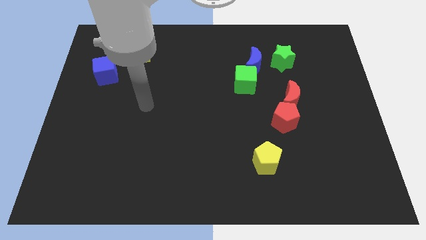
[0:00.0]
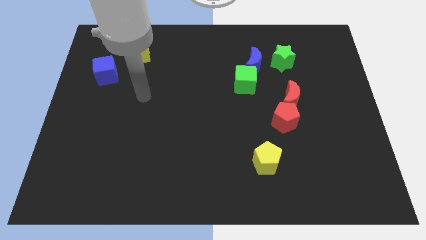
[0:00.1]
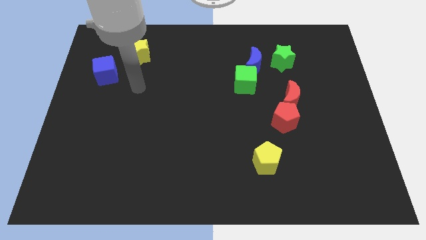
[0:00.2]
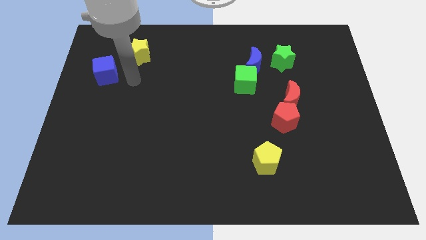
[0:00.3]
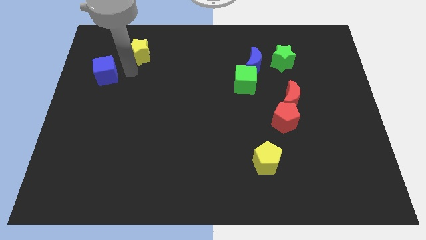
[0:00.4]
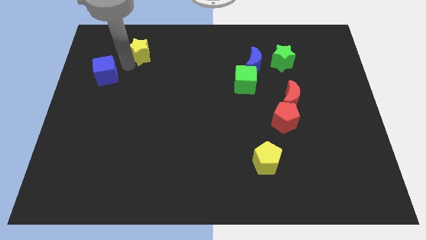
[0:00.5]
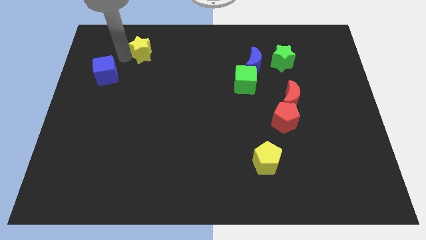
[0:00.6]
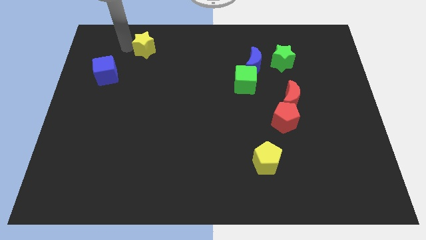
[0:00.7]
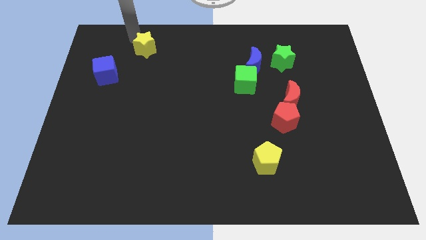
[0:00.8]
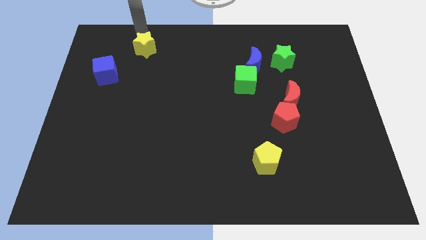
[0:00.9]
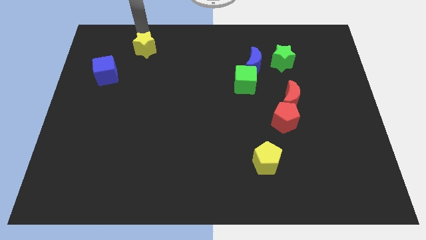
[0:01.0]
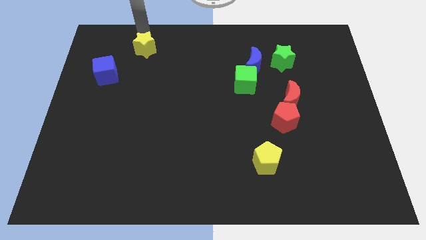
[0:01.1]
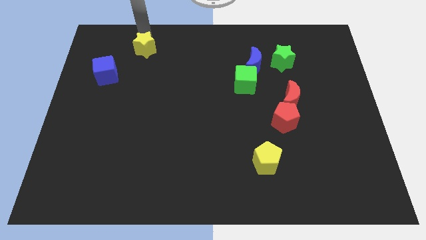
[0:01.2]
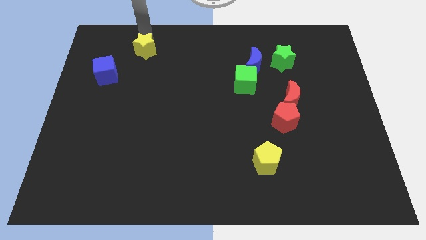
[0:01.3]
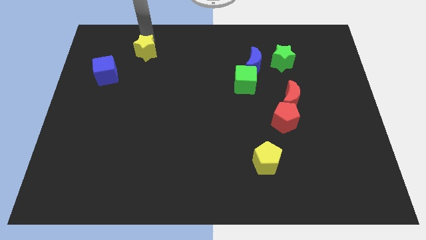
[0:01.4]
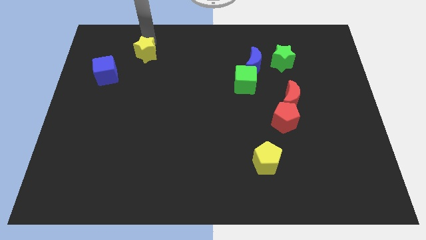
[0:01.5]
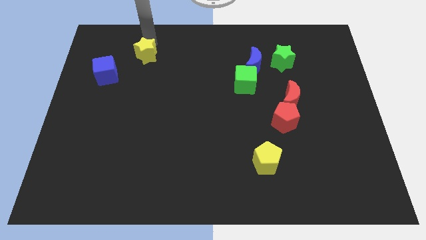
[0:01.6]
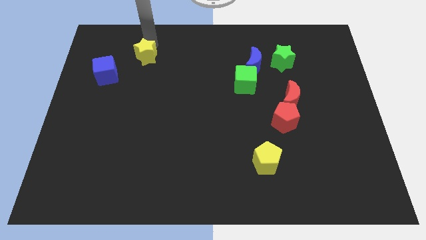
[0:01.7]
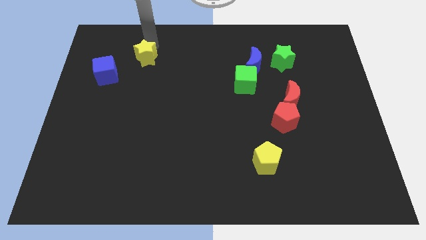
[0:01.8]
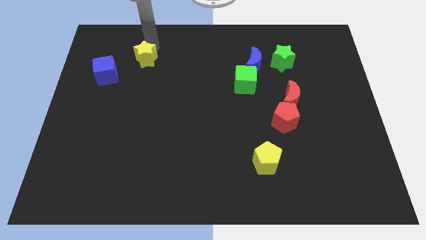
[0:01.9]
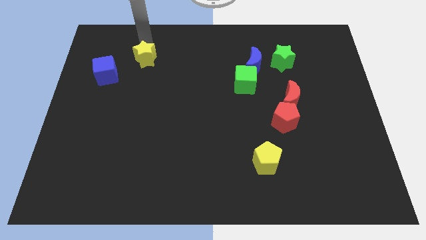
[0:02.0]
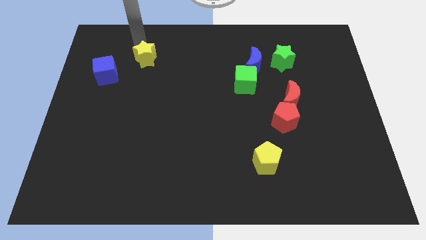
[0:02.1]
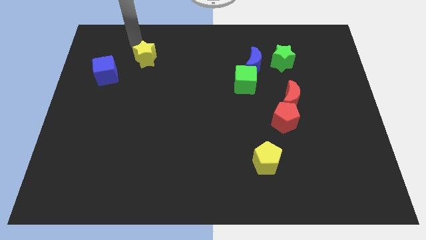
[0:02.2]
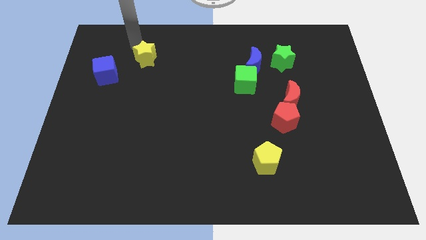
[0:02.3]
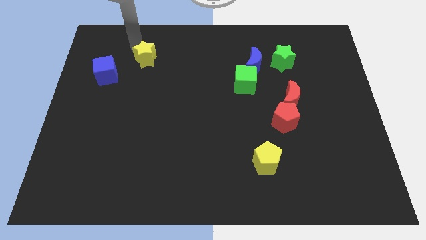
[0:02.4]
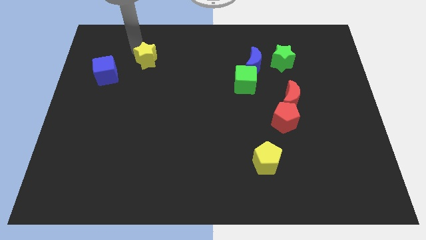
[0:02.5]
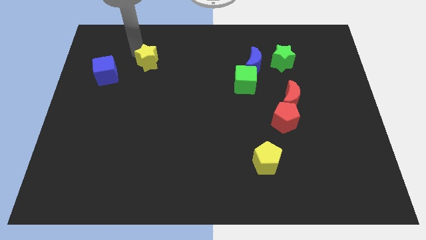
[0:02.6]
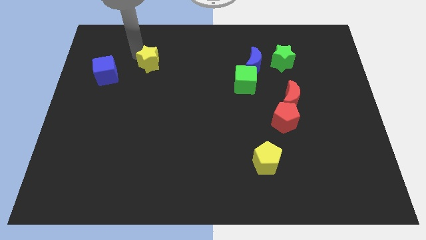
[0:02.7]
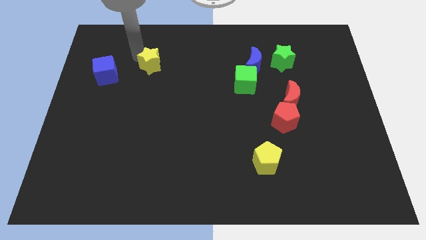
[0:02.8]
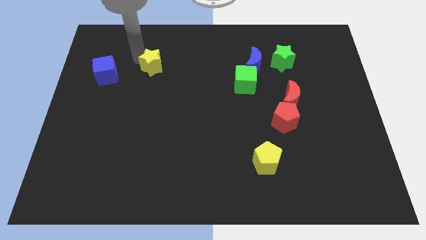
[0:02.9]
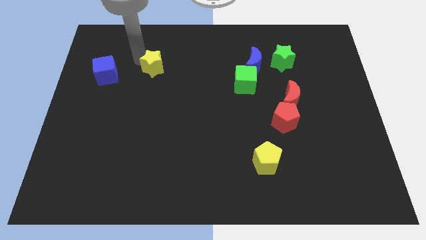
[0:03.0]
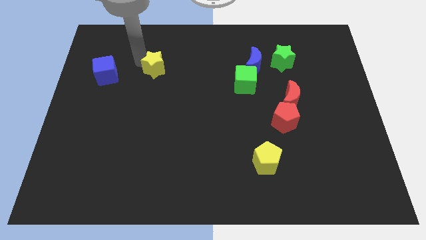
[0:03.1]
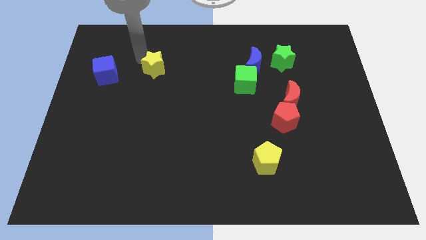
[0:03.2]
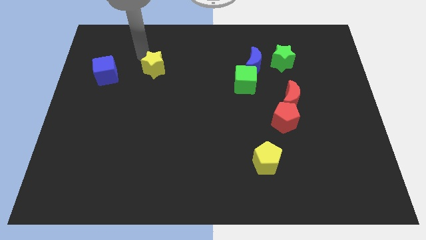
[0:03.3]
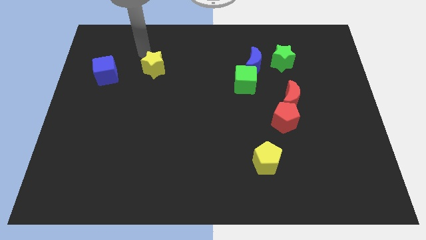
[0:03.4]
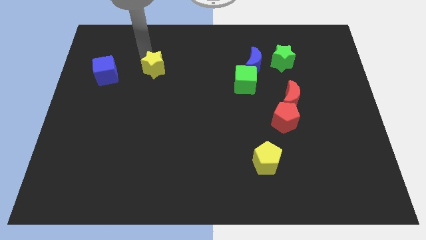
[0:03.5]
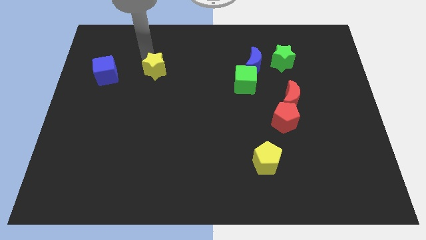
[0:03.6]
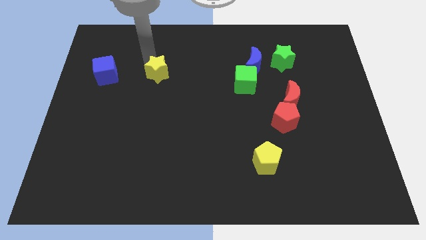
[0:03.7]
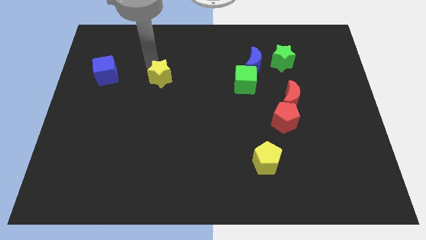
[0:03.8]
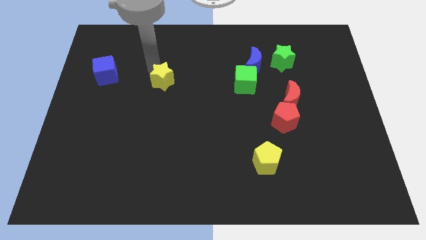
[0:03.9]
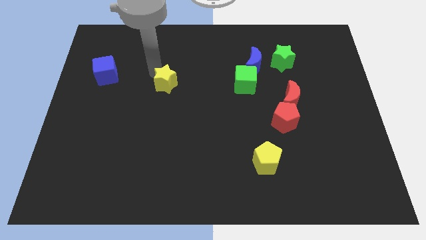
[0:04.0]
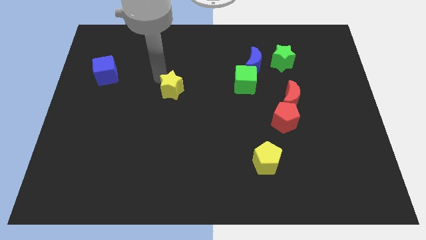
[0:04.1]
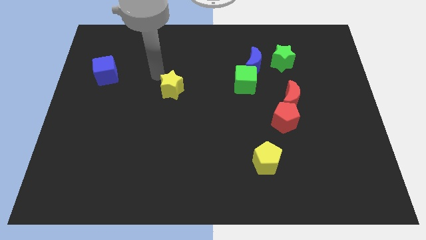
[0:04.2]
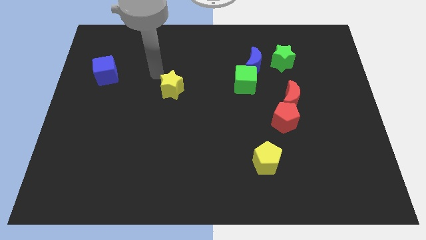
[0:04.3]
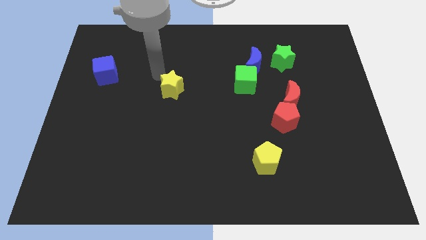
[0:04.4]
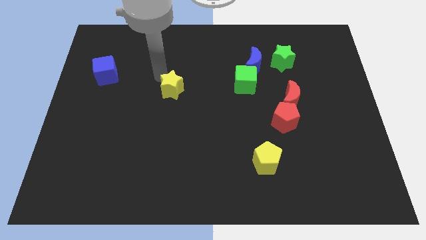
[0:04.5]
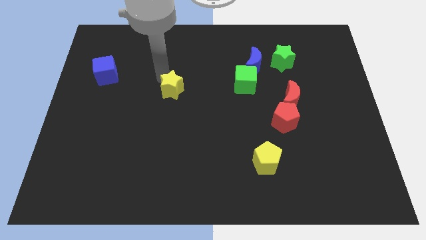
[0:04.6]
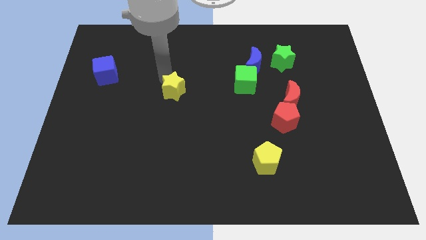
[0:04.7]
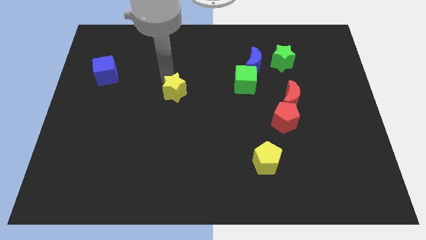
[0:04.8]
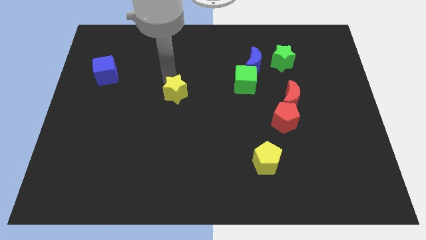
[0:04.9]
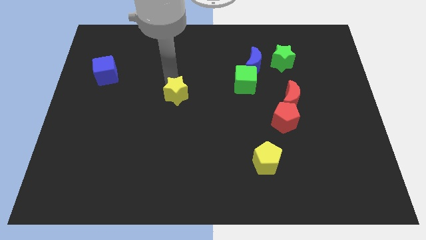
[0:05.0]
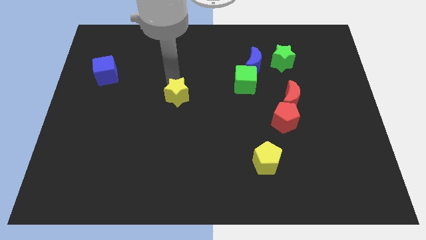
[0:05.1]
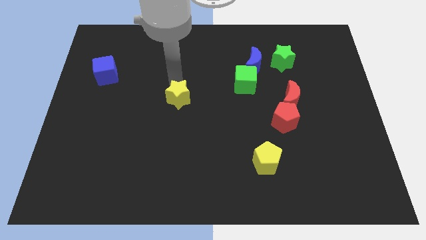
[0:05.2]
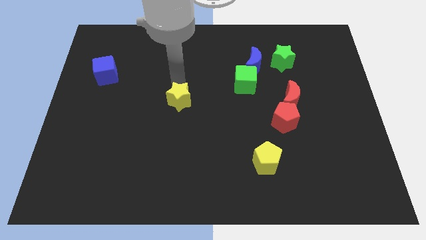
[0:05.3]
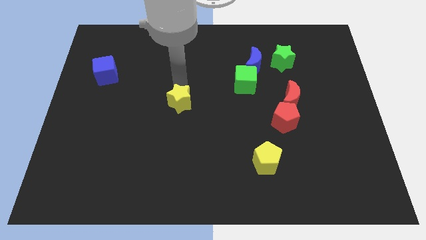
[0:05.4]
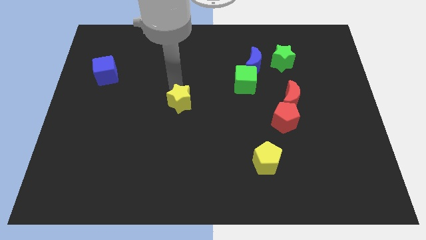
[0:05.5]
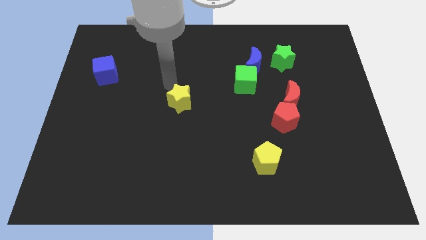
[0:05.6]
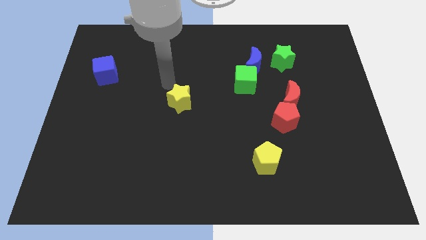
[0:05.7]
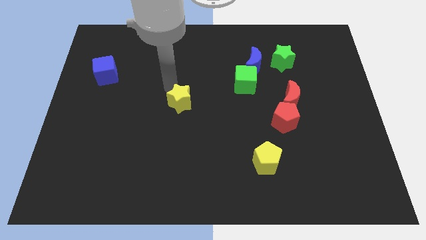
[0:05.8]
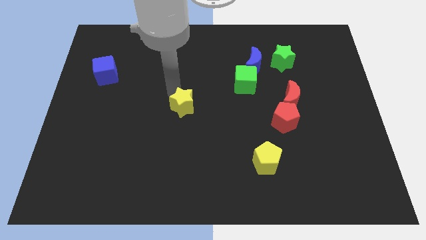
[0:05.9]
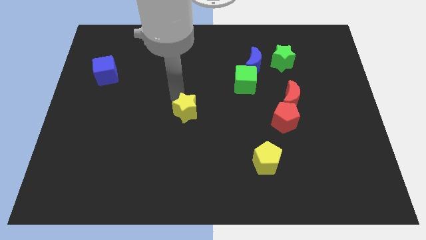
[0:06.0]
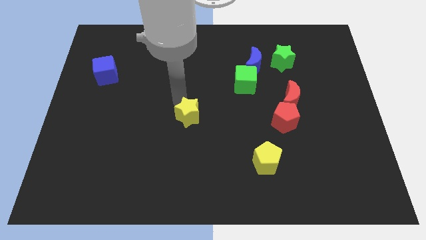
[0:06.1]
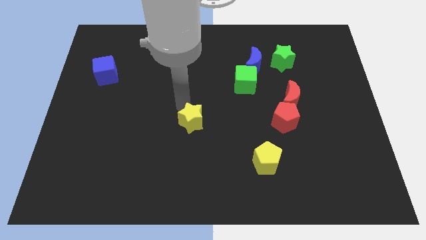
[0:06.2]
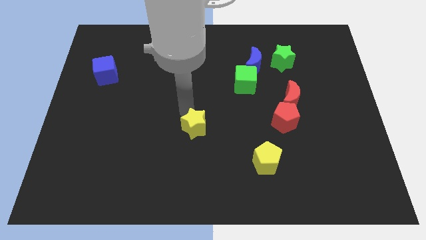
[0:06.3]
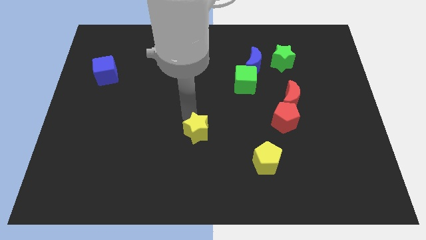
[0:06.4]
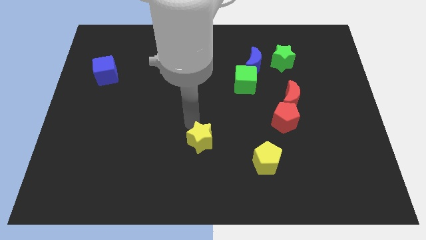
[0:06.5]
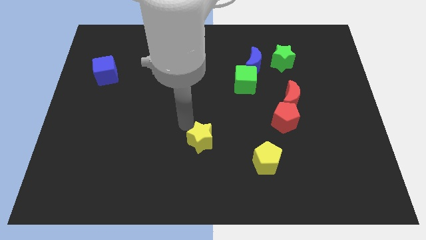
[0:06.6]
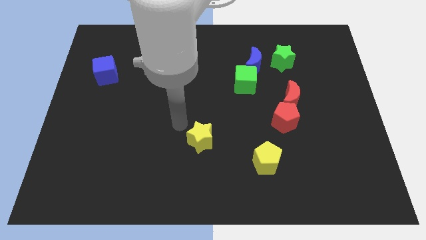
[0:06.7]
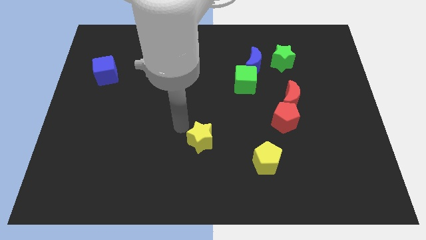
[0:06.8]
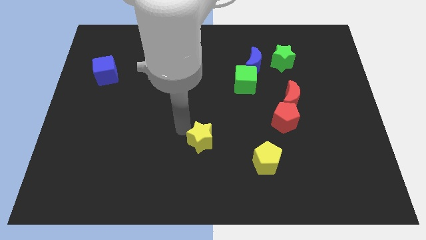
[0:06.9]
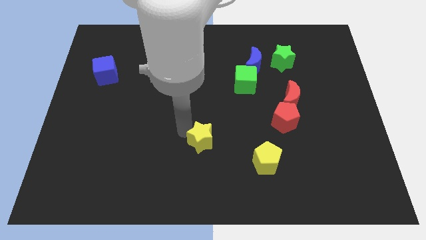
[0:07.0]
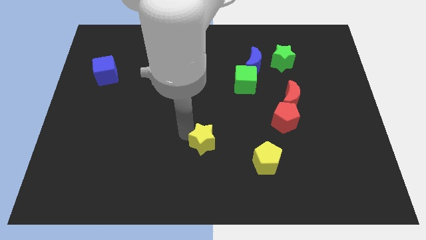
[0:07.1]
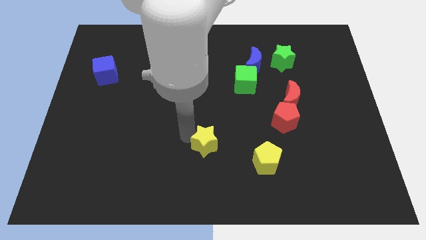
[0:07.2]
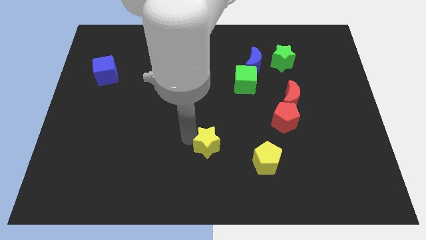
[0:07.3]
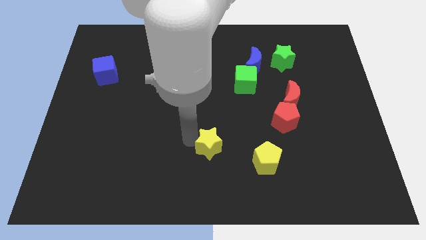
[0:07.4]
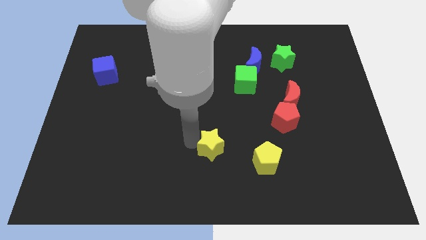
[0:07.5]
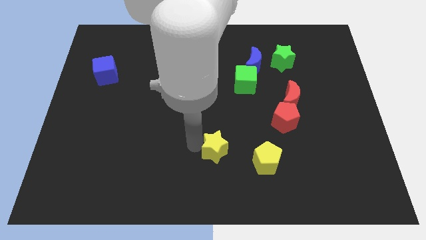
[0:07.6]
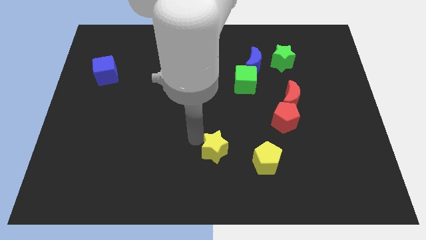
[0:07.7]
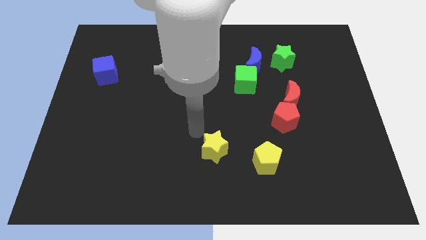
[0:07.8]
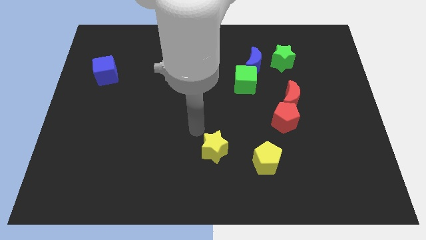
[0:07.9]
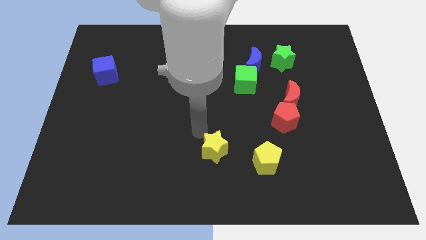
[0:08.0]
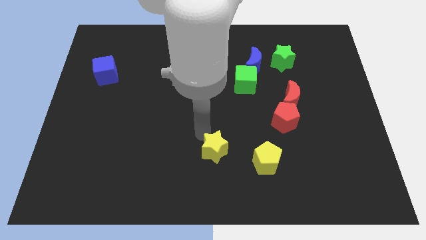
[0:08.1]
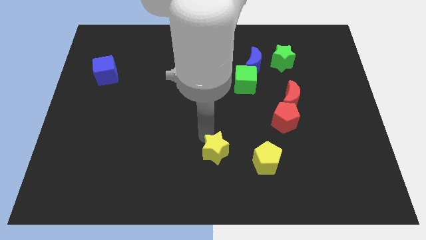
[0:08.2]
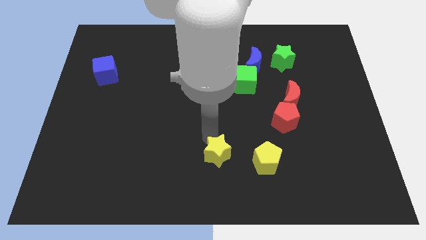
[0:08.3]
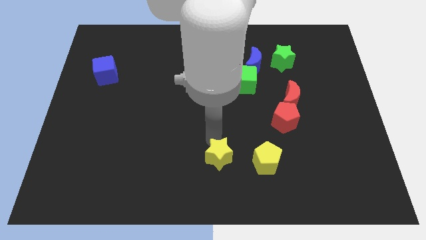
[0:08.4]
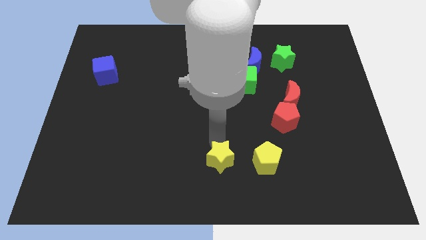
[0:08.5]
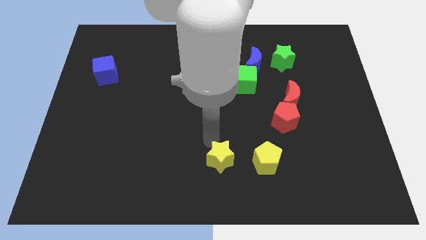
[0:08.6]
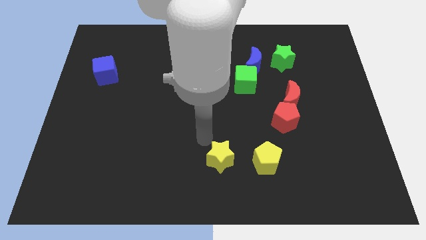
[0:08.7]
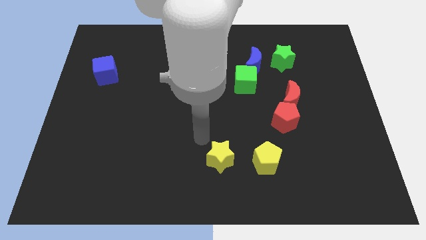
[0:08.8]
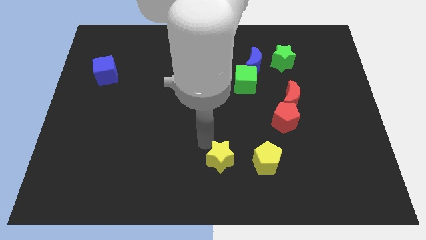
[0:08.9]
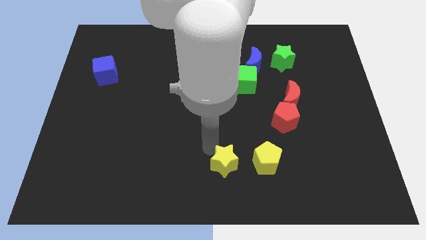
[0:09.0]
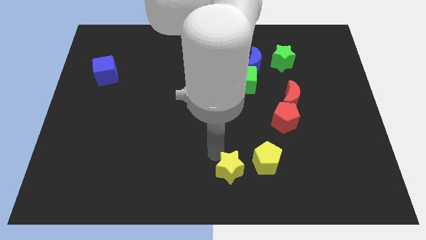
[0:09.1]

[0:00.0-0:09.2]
put the yellow star diagonally down and to the left of the yellow pentagon
